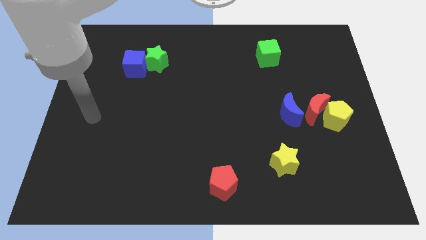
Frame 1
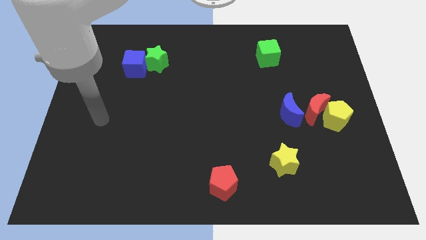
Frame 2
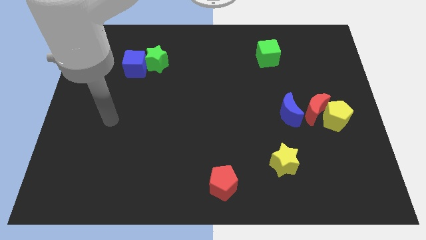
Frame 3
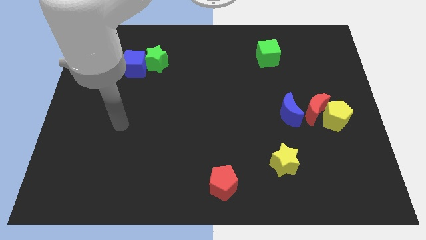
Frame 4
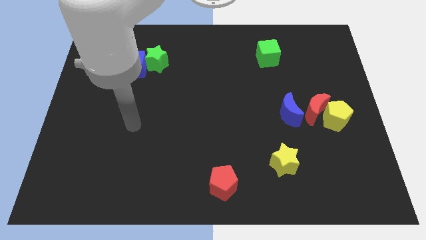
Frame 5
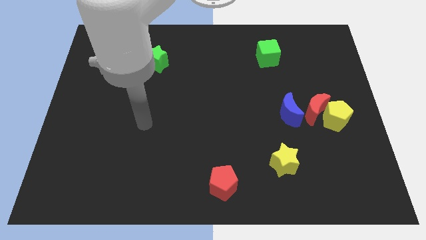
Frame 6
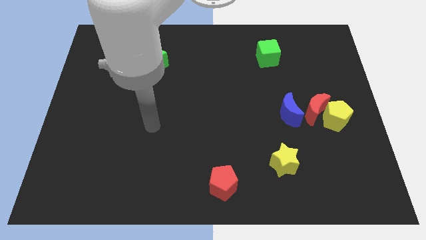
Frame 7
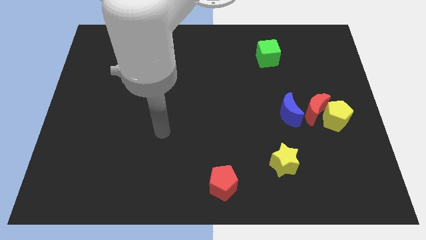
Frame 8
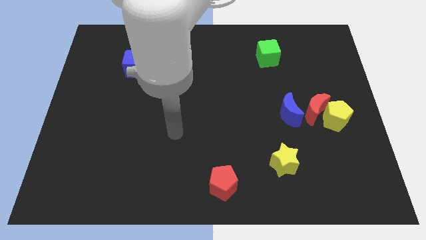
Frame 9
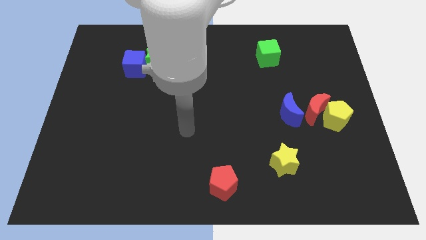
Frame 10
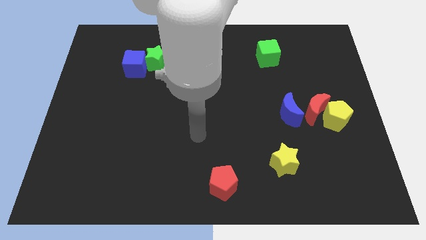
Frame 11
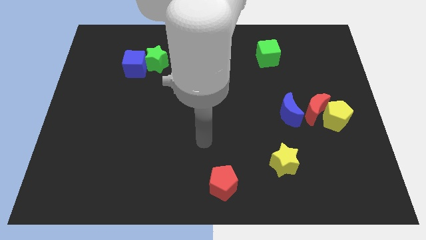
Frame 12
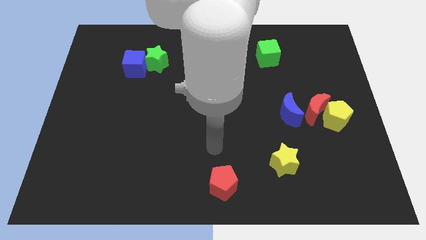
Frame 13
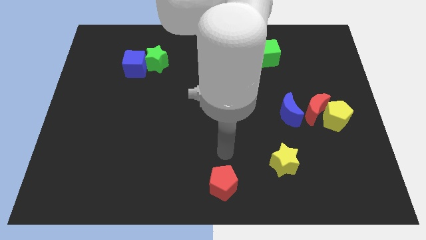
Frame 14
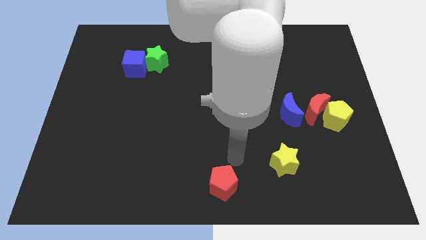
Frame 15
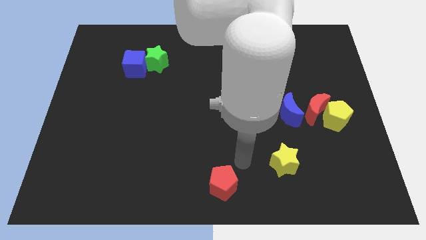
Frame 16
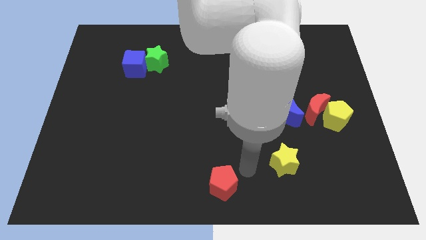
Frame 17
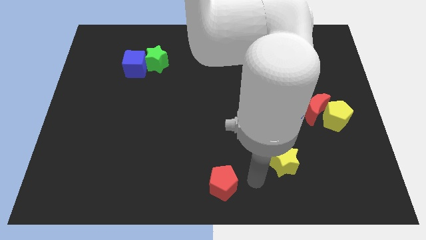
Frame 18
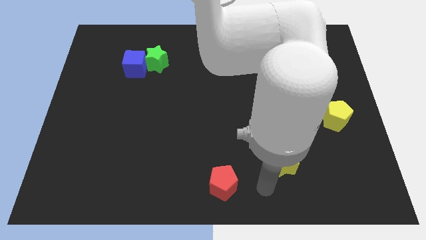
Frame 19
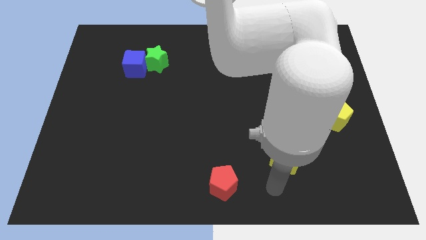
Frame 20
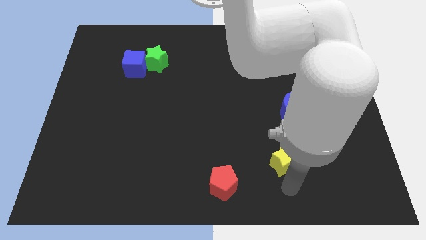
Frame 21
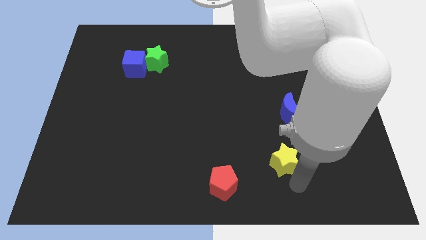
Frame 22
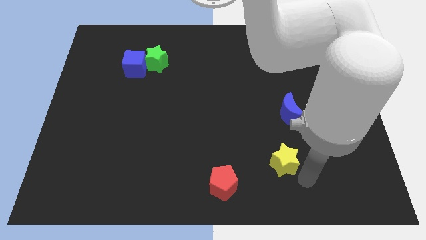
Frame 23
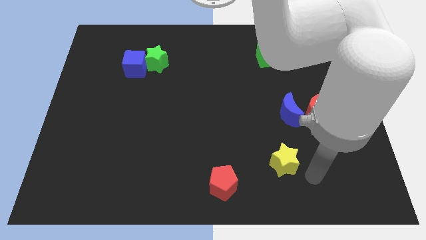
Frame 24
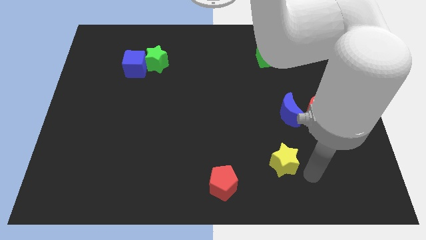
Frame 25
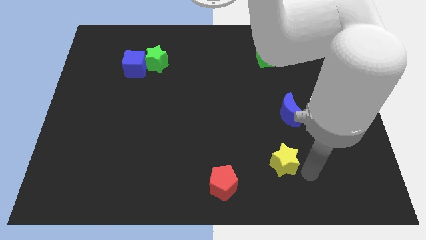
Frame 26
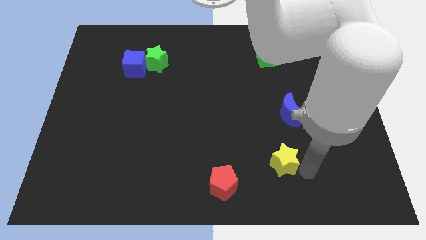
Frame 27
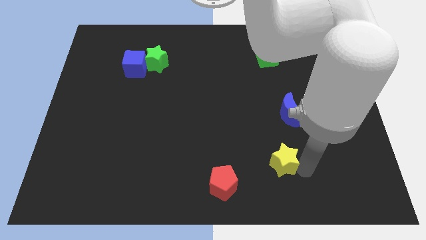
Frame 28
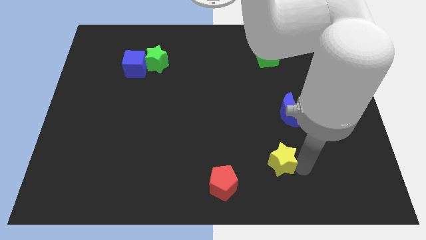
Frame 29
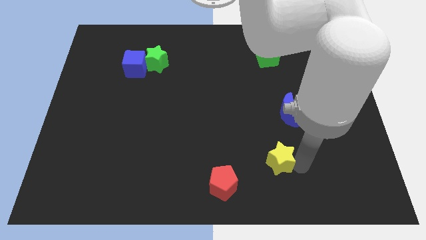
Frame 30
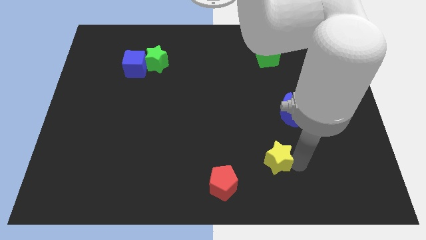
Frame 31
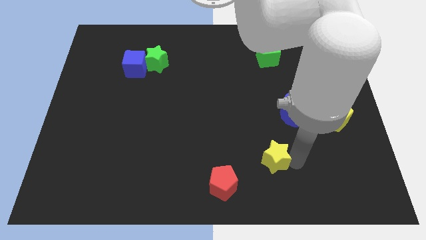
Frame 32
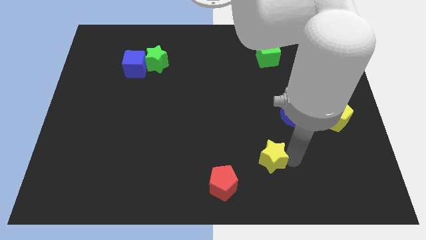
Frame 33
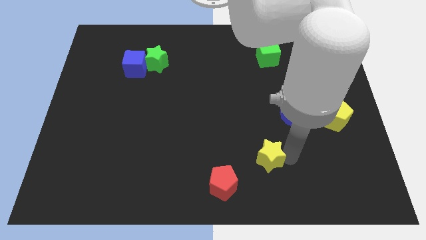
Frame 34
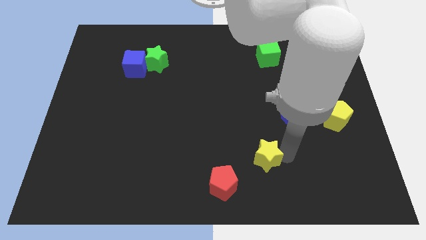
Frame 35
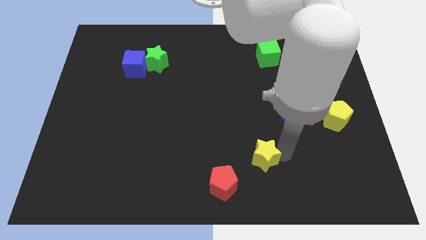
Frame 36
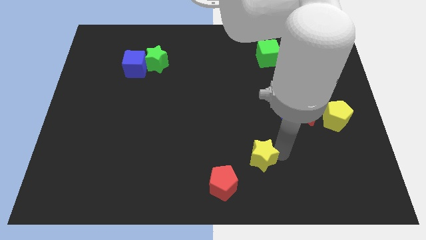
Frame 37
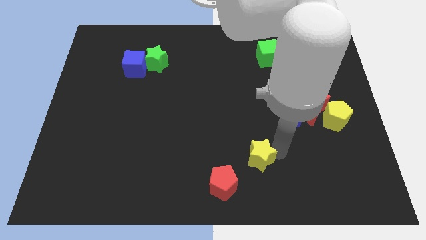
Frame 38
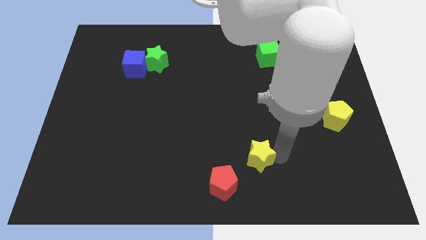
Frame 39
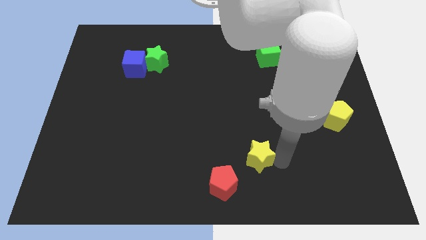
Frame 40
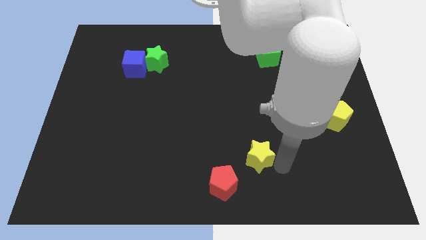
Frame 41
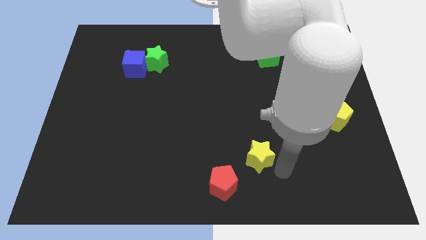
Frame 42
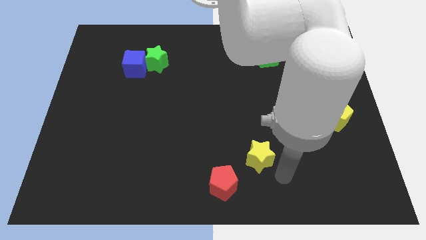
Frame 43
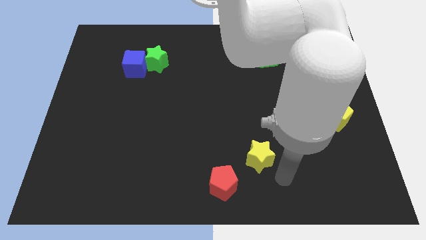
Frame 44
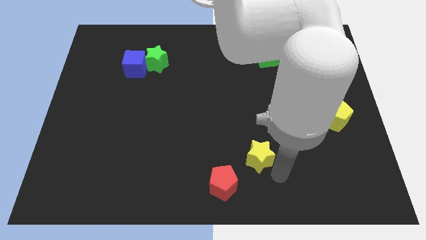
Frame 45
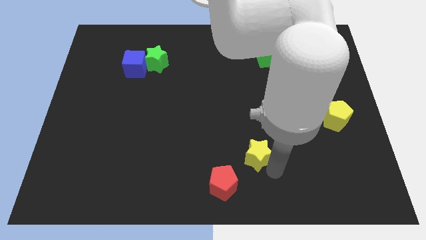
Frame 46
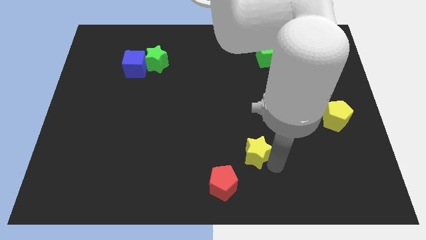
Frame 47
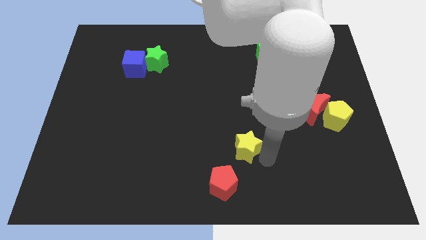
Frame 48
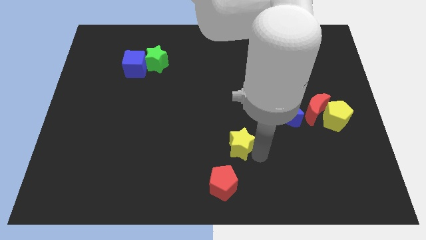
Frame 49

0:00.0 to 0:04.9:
put the yellow star to the top of the red pentagon

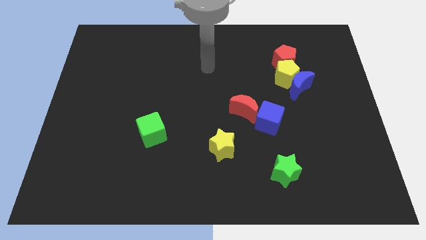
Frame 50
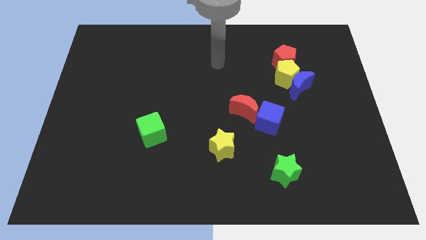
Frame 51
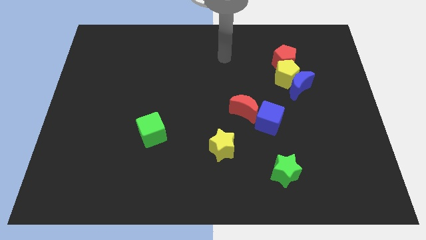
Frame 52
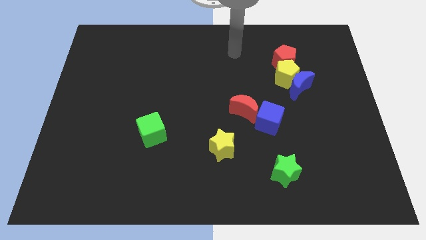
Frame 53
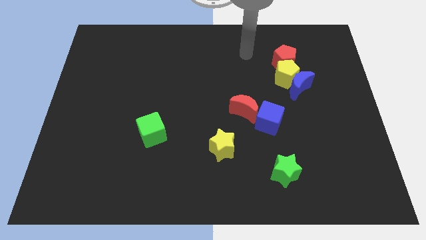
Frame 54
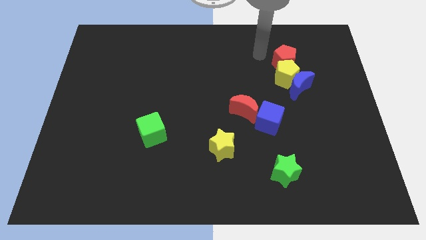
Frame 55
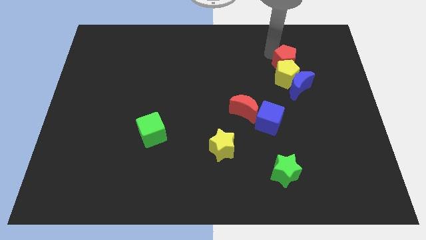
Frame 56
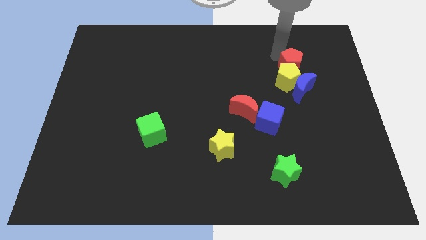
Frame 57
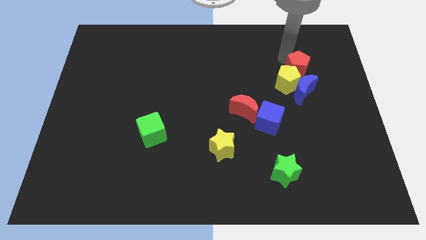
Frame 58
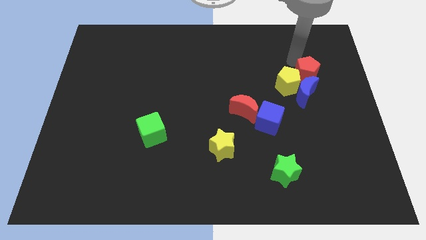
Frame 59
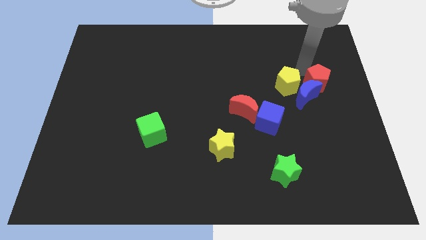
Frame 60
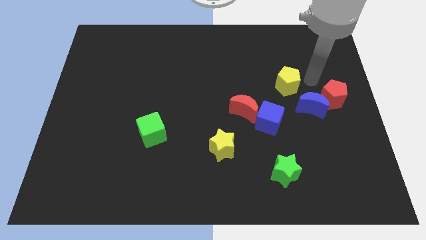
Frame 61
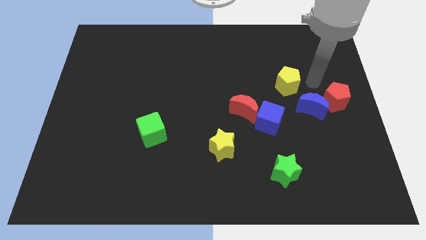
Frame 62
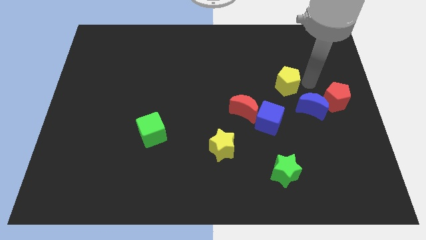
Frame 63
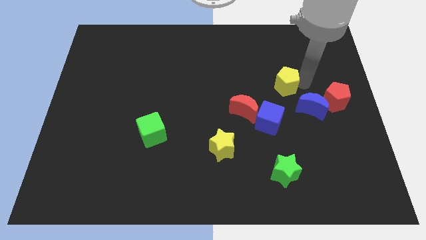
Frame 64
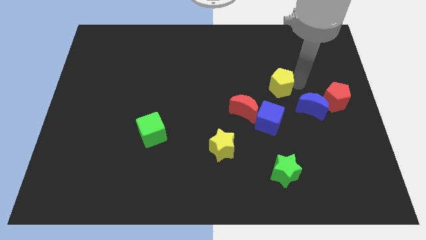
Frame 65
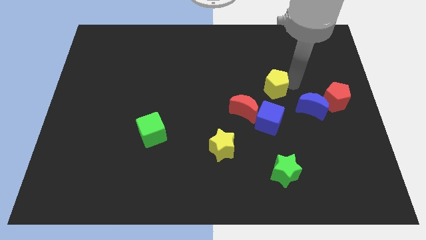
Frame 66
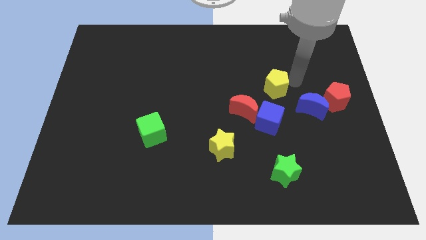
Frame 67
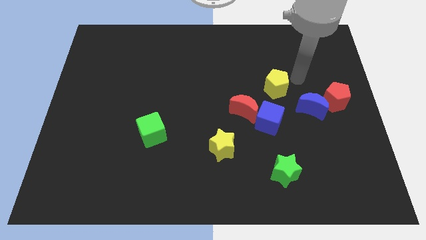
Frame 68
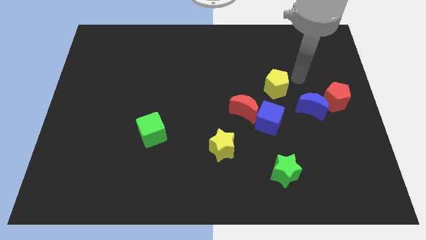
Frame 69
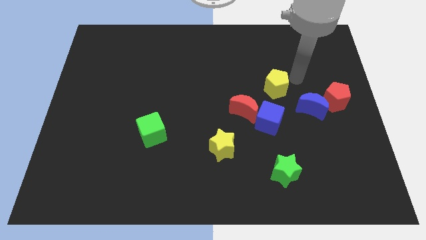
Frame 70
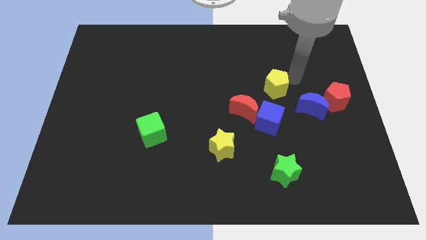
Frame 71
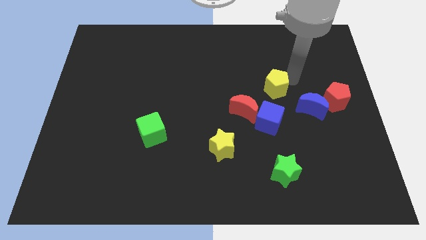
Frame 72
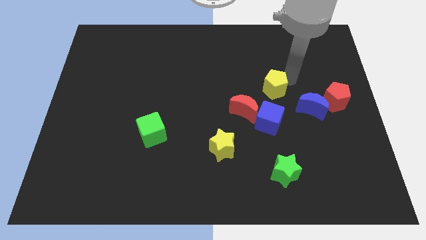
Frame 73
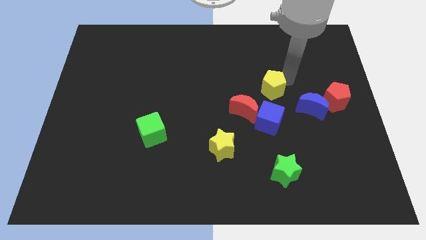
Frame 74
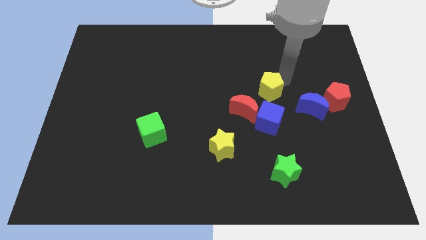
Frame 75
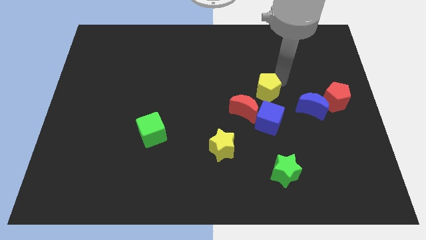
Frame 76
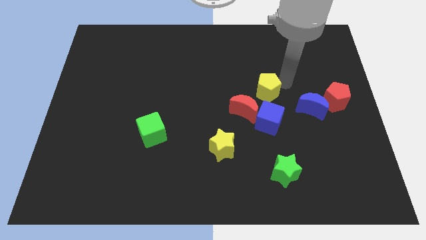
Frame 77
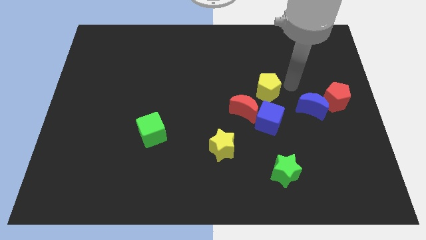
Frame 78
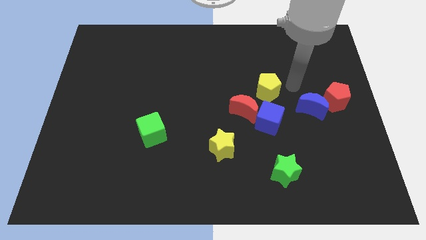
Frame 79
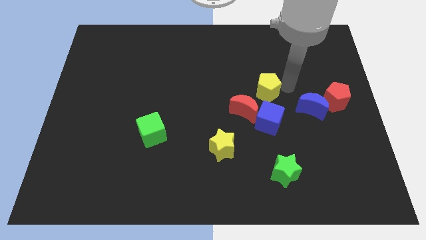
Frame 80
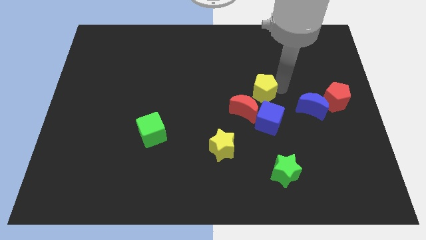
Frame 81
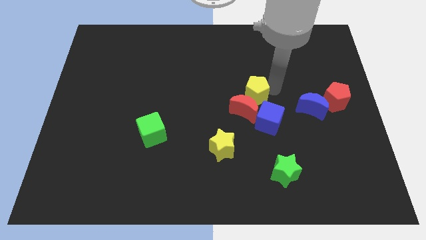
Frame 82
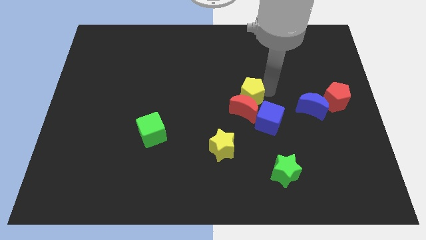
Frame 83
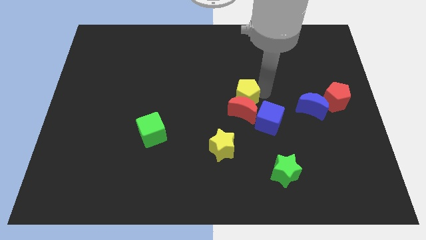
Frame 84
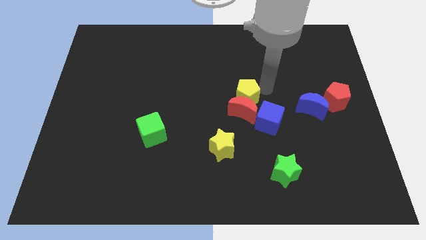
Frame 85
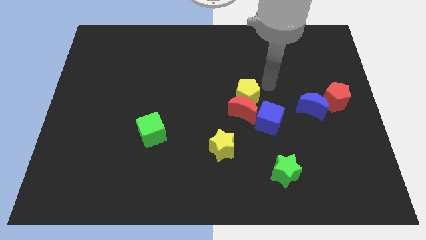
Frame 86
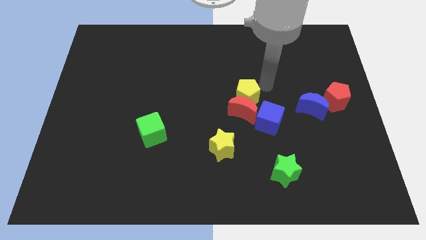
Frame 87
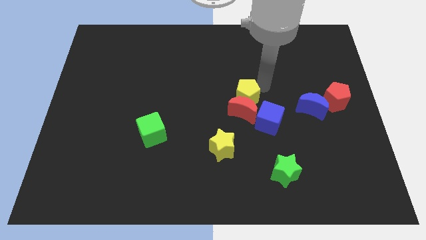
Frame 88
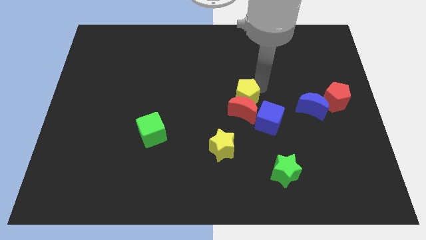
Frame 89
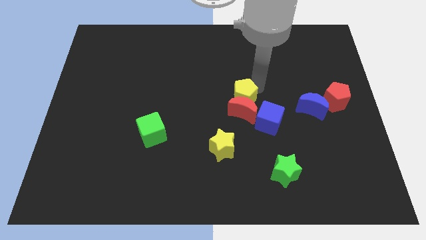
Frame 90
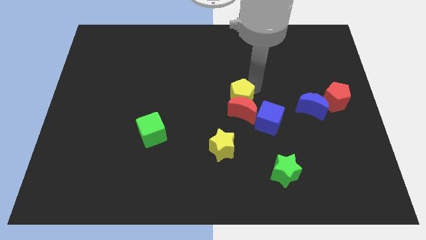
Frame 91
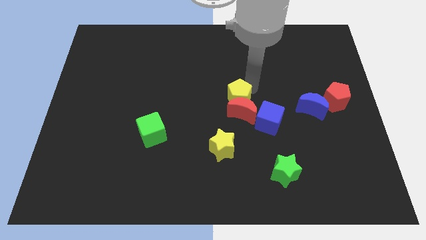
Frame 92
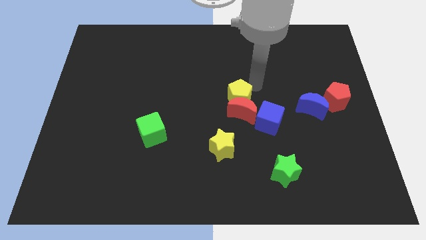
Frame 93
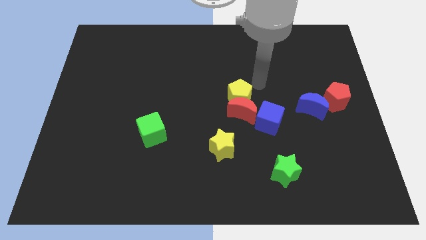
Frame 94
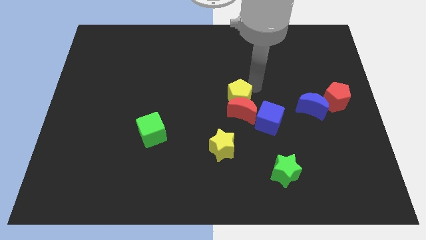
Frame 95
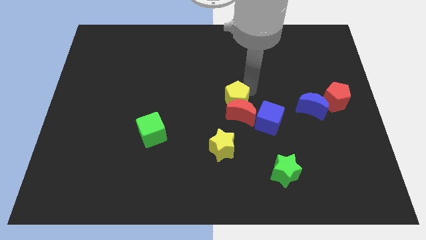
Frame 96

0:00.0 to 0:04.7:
slide the yellow pentagon above the yellow star
